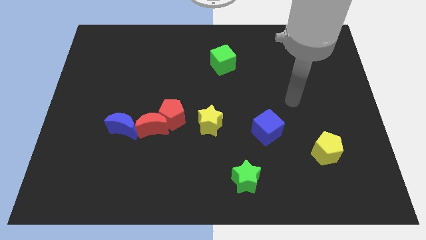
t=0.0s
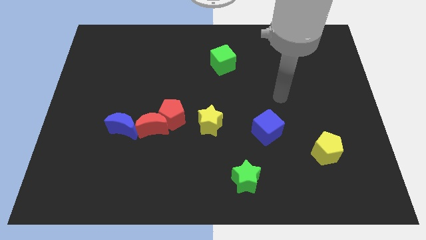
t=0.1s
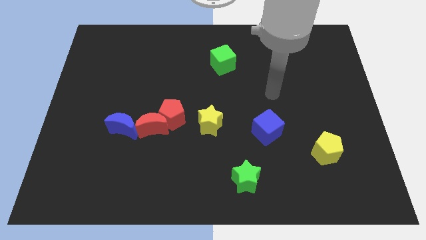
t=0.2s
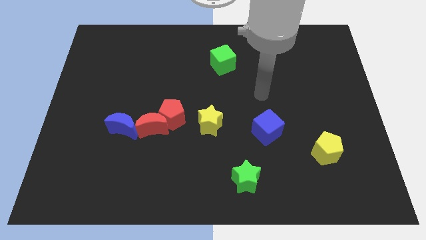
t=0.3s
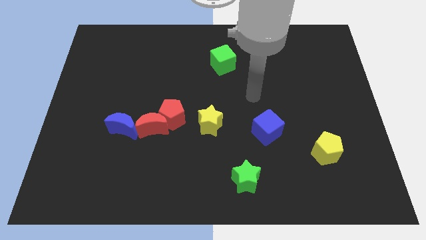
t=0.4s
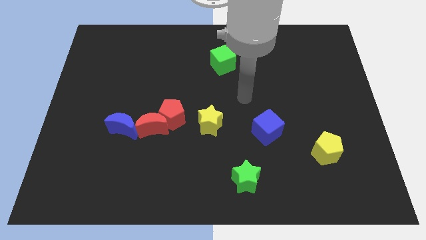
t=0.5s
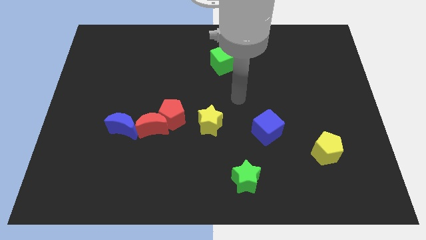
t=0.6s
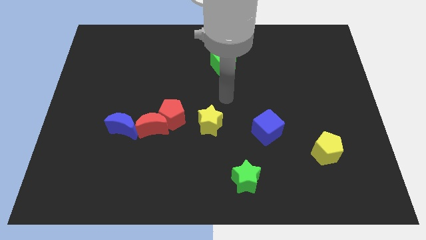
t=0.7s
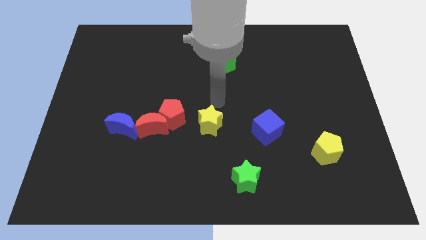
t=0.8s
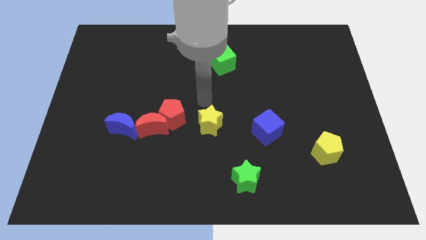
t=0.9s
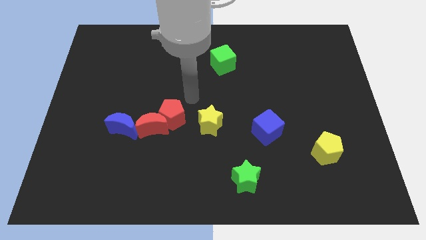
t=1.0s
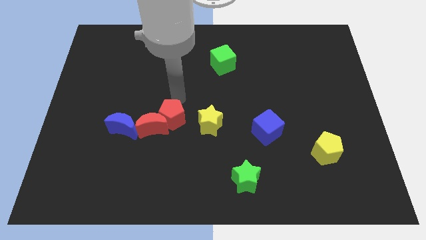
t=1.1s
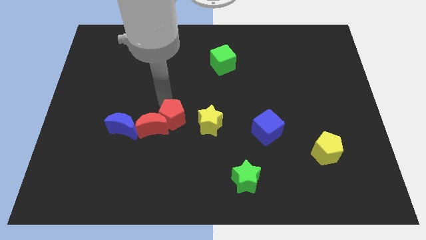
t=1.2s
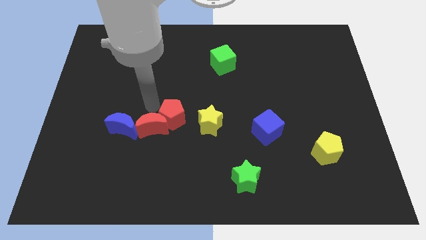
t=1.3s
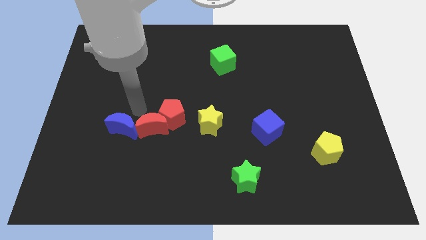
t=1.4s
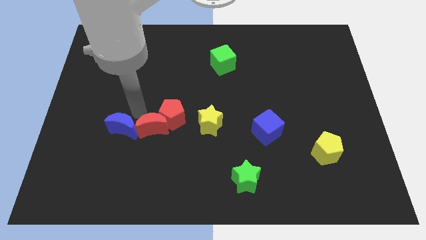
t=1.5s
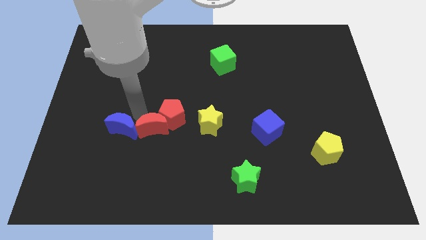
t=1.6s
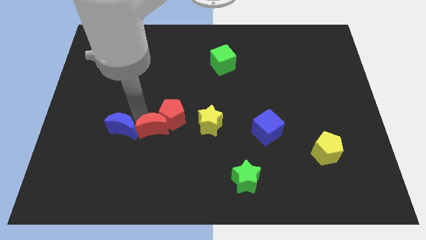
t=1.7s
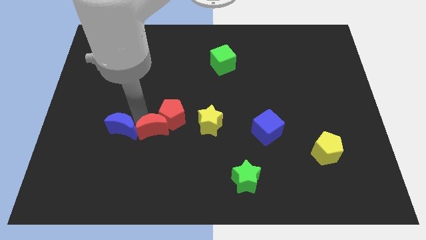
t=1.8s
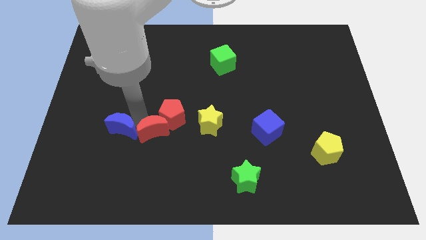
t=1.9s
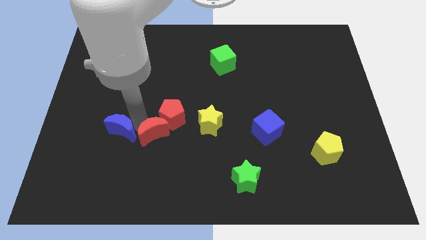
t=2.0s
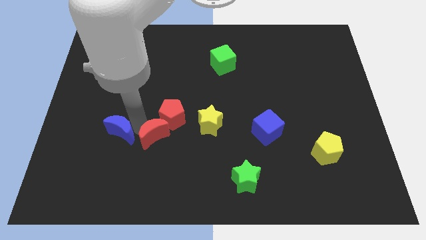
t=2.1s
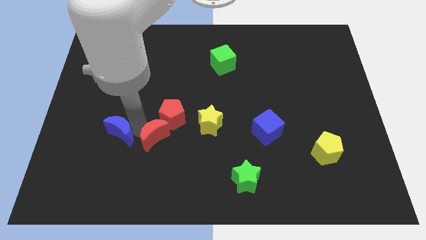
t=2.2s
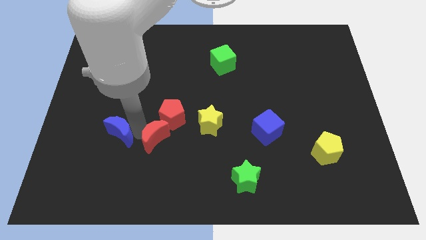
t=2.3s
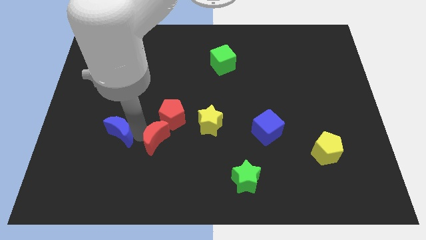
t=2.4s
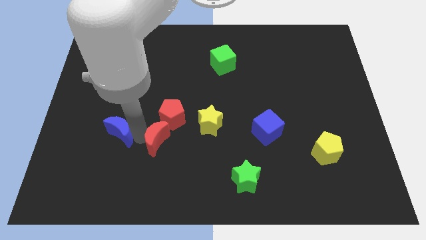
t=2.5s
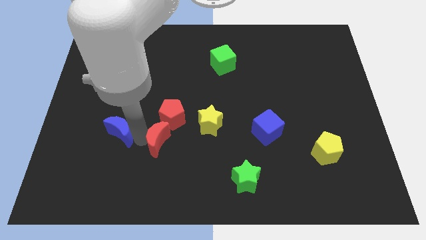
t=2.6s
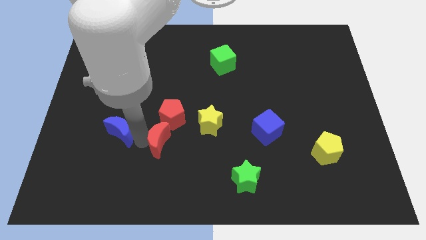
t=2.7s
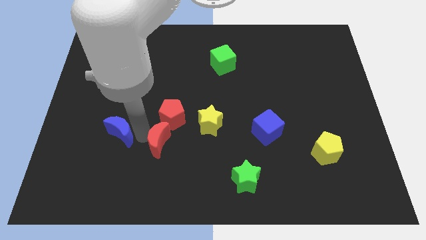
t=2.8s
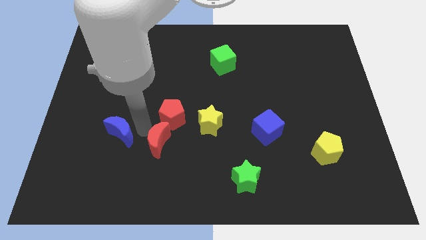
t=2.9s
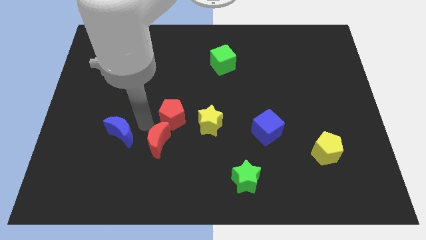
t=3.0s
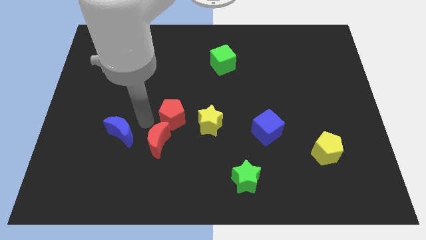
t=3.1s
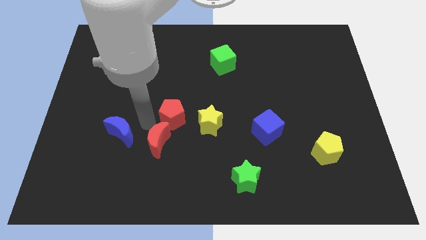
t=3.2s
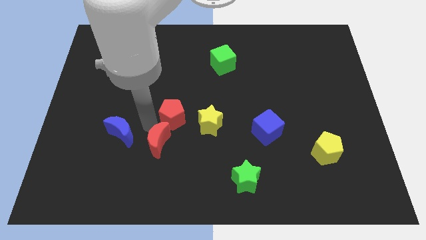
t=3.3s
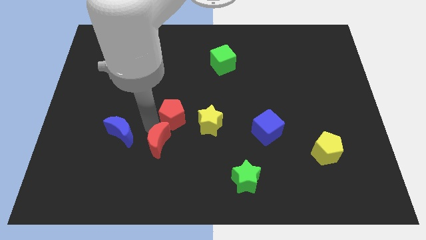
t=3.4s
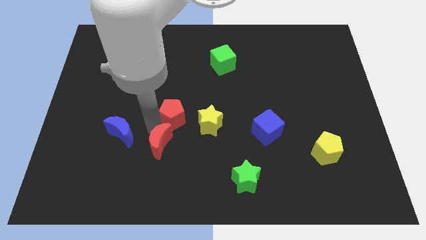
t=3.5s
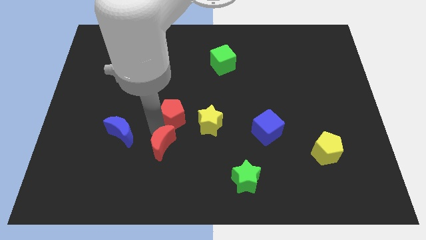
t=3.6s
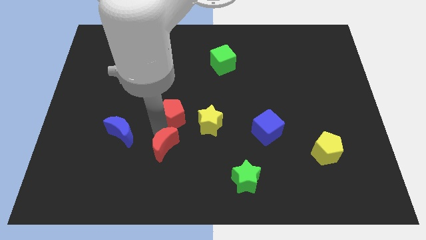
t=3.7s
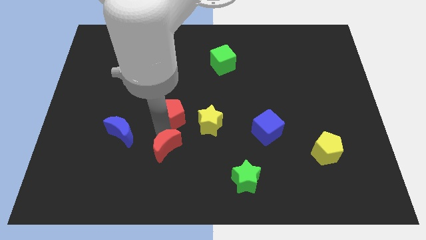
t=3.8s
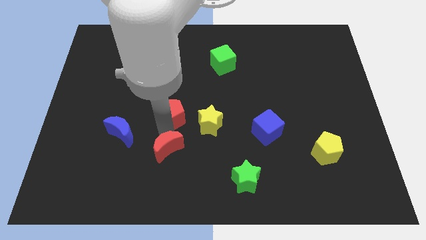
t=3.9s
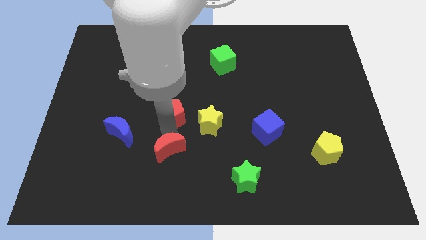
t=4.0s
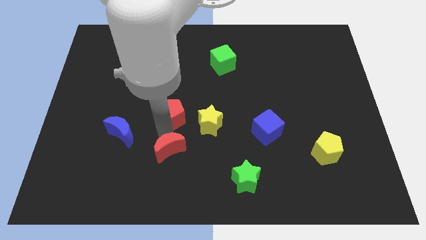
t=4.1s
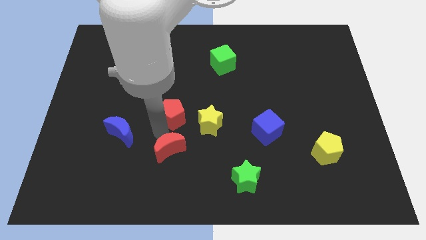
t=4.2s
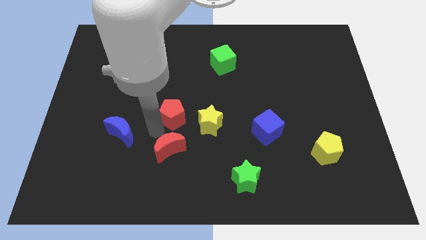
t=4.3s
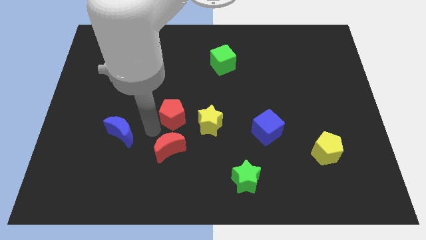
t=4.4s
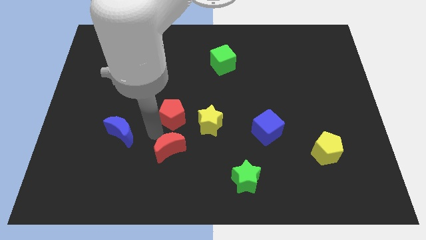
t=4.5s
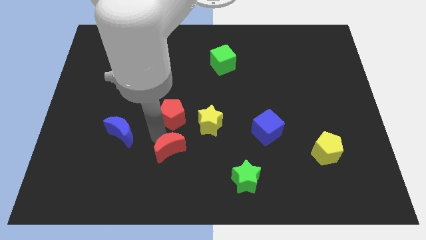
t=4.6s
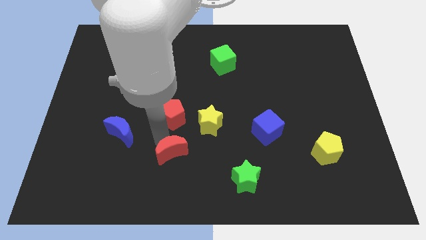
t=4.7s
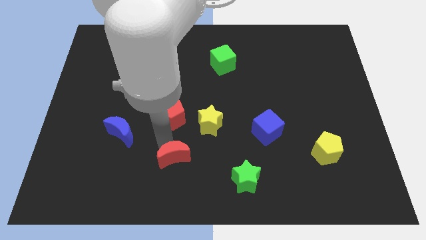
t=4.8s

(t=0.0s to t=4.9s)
pull the red moon apart from the red pentagon and blue moon

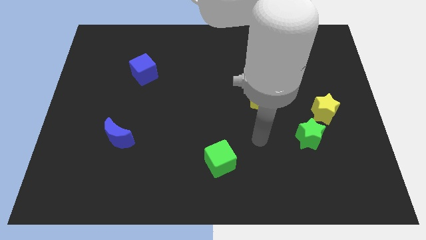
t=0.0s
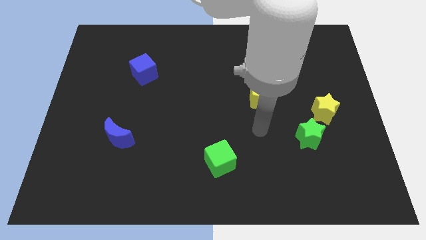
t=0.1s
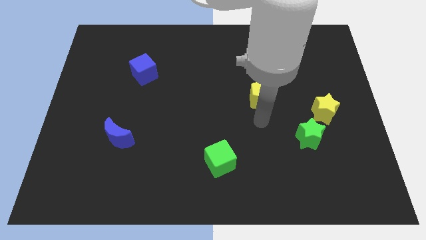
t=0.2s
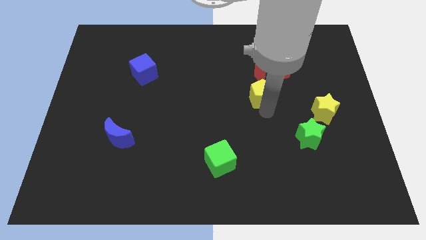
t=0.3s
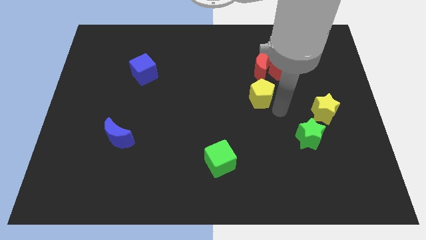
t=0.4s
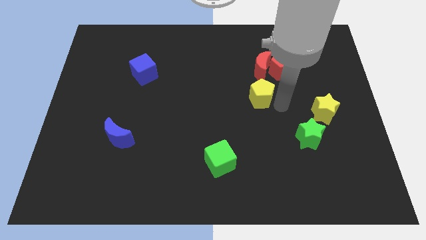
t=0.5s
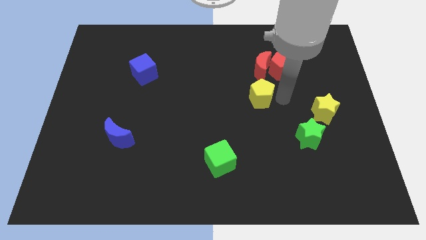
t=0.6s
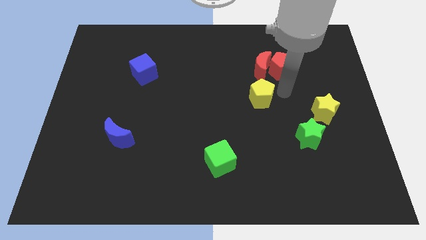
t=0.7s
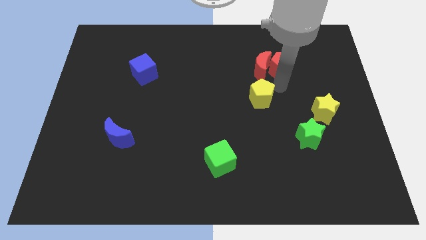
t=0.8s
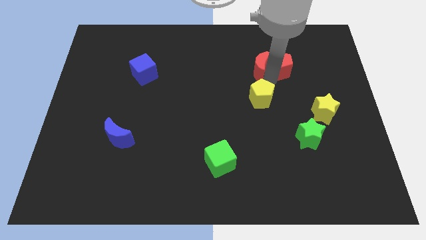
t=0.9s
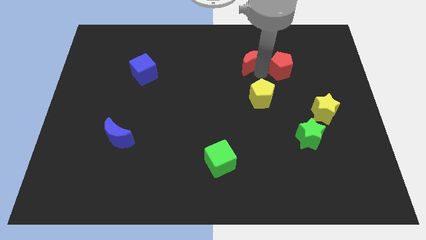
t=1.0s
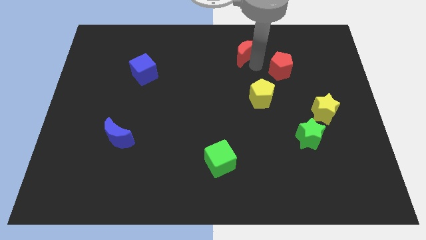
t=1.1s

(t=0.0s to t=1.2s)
separate the red pentagon from the red moon

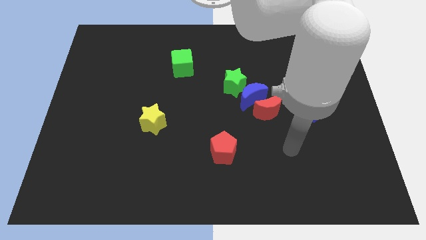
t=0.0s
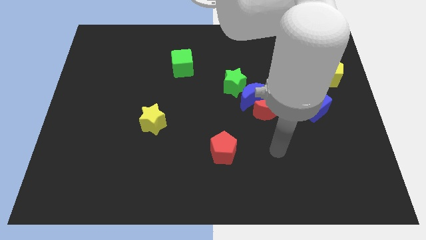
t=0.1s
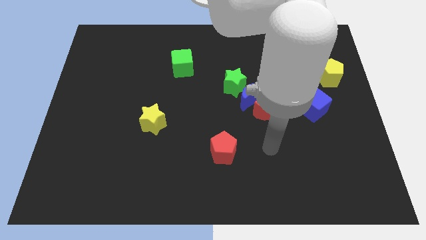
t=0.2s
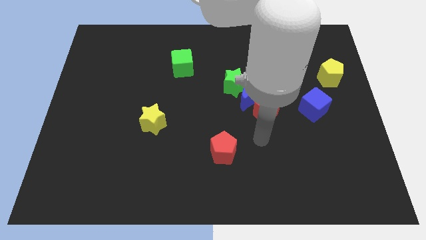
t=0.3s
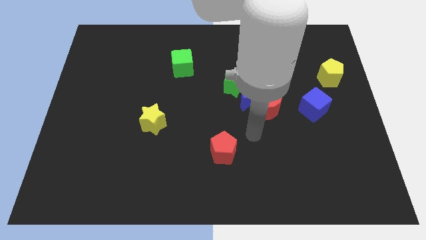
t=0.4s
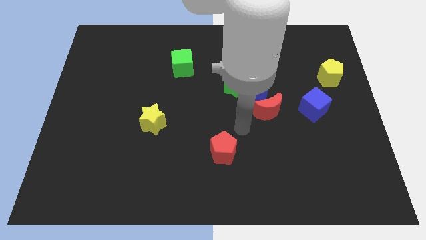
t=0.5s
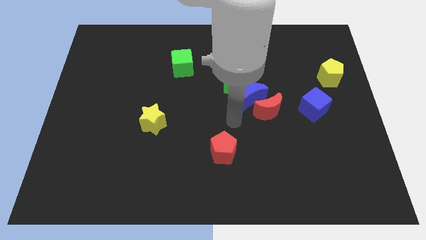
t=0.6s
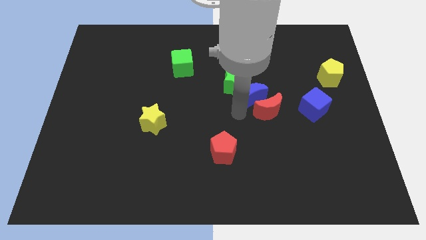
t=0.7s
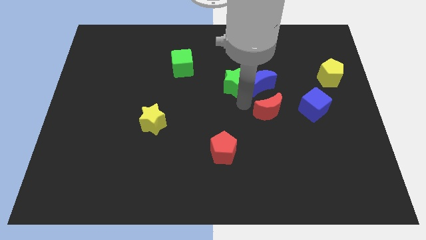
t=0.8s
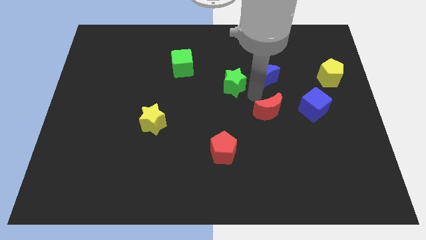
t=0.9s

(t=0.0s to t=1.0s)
pull the red moon apart from the blue moon

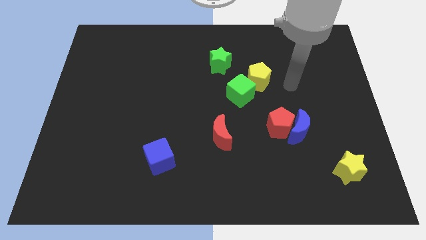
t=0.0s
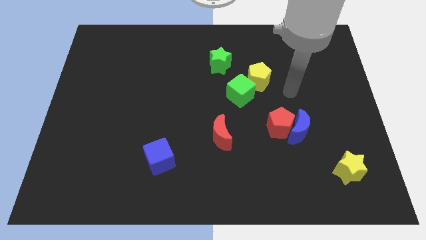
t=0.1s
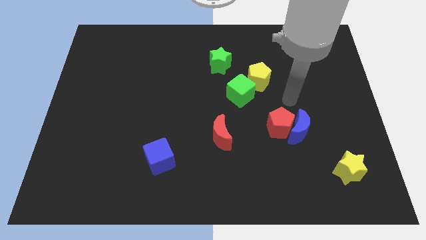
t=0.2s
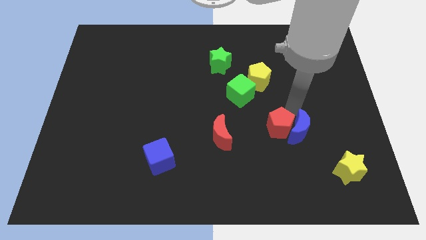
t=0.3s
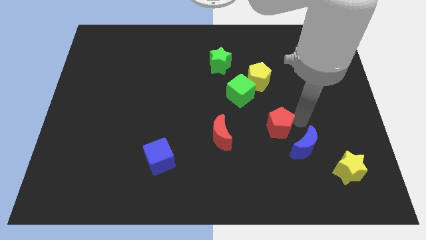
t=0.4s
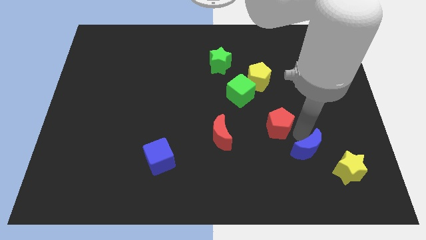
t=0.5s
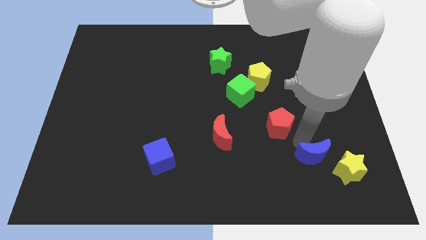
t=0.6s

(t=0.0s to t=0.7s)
move the red pentagon away from the blue moon

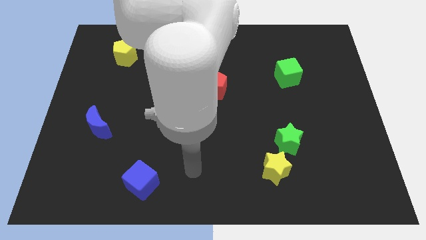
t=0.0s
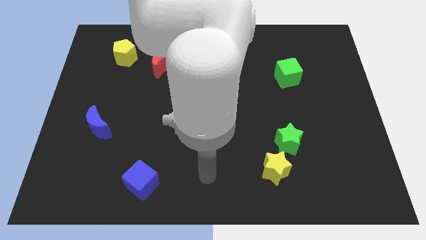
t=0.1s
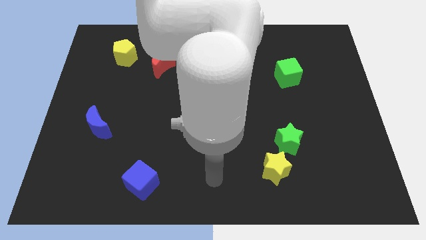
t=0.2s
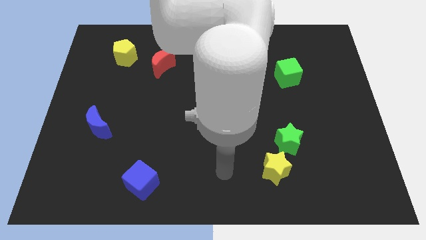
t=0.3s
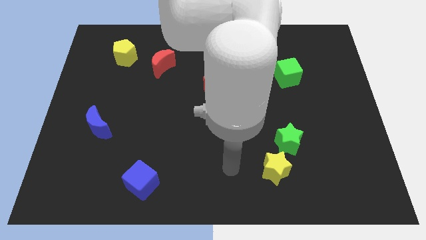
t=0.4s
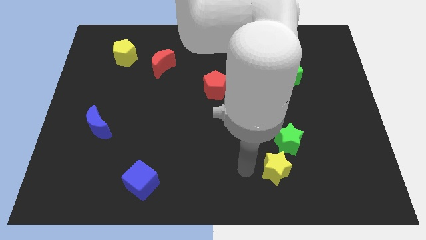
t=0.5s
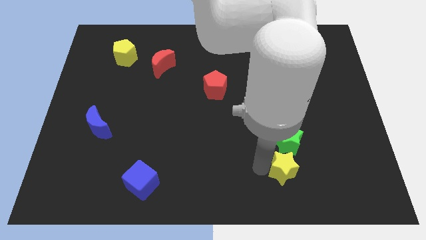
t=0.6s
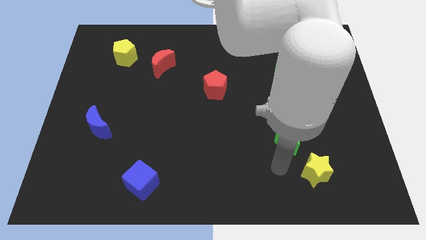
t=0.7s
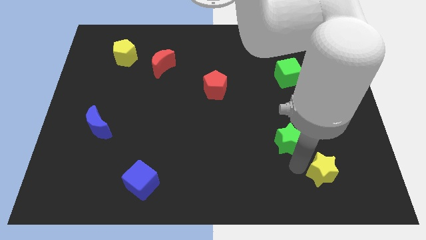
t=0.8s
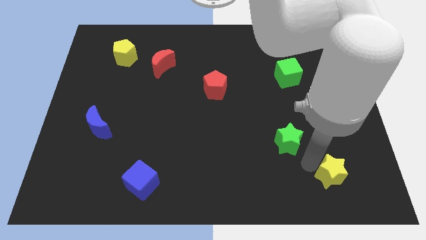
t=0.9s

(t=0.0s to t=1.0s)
move the green star away from the yellow star

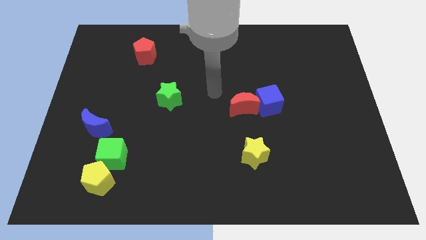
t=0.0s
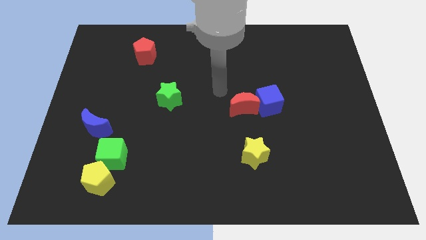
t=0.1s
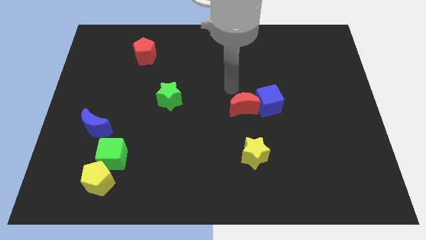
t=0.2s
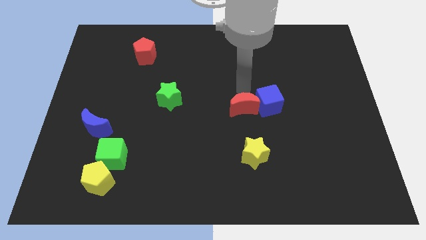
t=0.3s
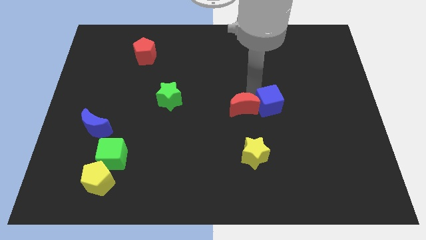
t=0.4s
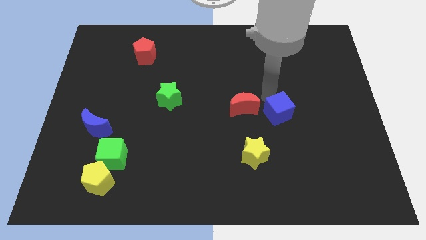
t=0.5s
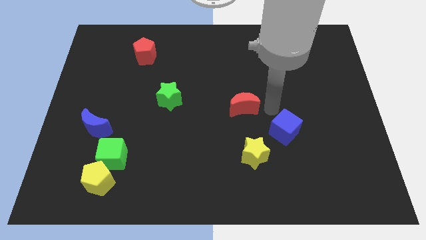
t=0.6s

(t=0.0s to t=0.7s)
pull the red moon apart from the blue cube
